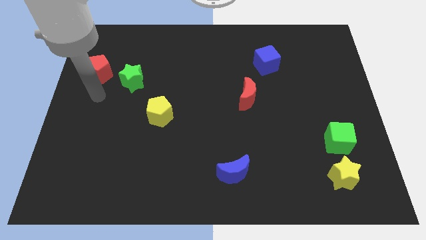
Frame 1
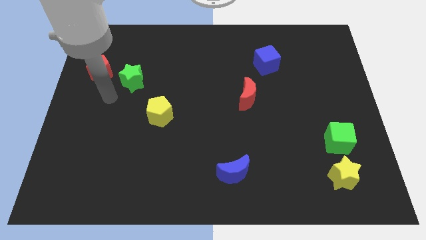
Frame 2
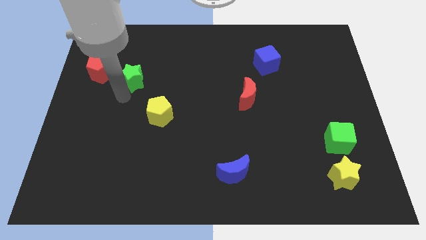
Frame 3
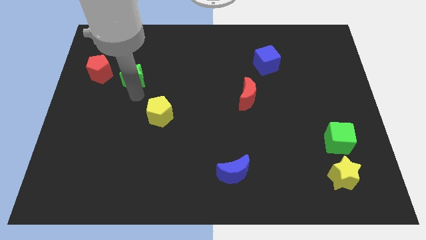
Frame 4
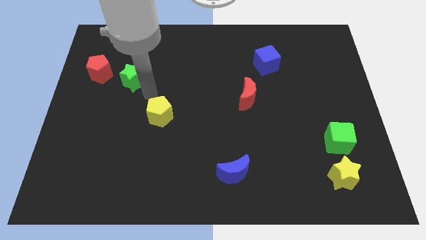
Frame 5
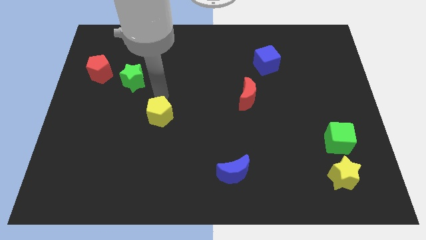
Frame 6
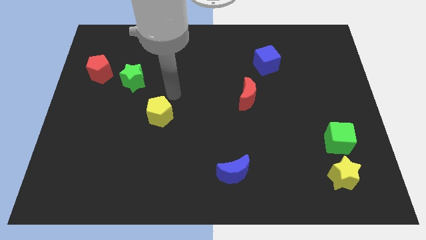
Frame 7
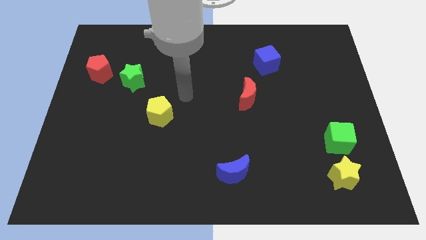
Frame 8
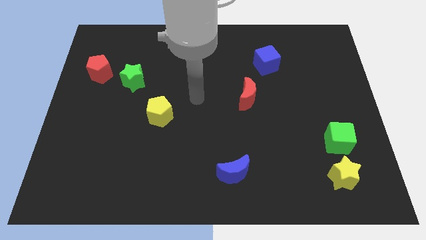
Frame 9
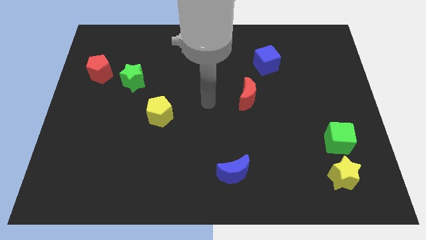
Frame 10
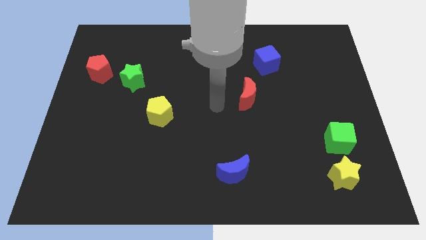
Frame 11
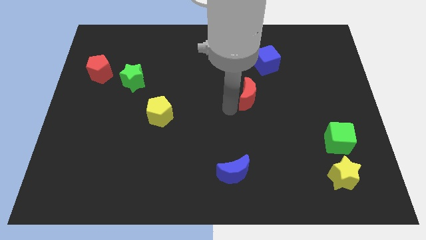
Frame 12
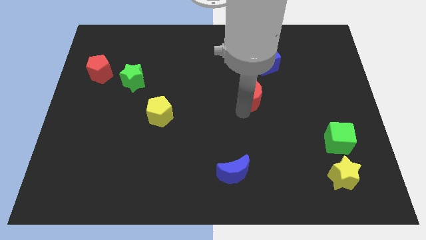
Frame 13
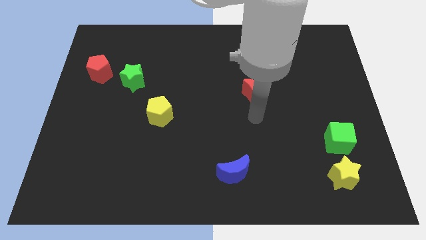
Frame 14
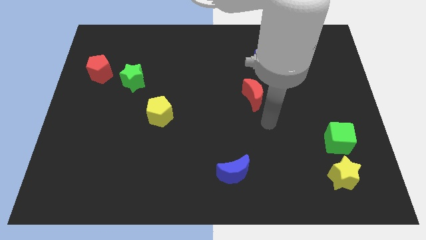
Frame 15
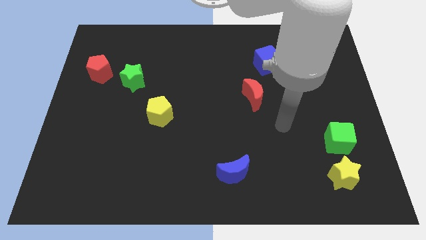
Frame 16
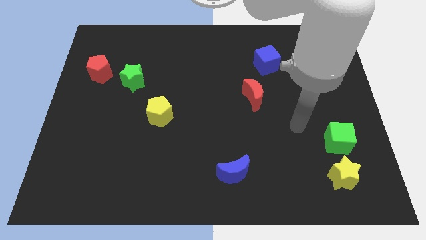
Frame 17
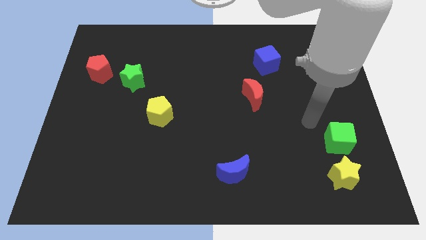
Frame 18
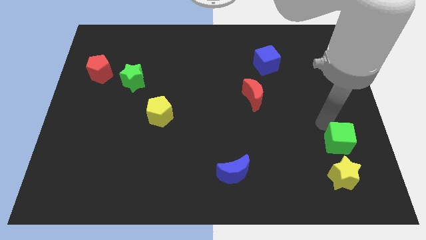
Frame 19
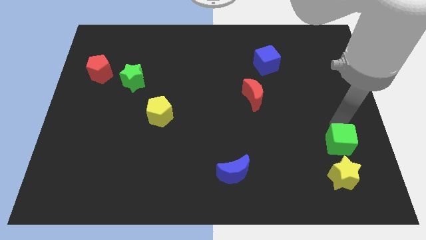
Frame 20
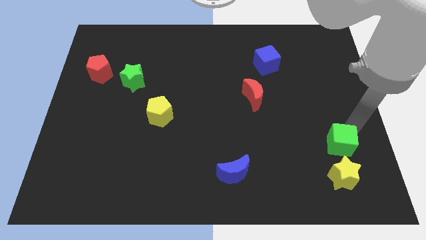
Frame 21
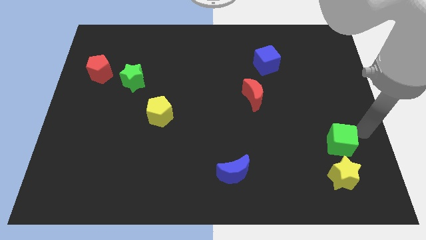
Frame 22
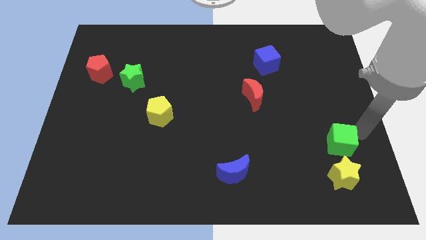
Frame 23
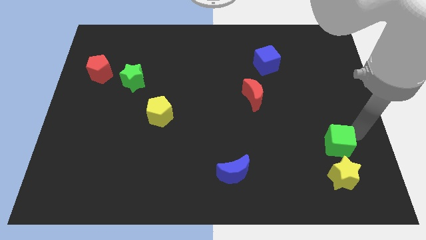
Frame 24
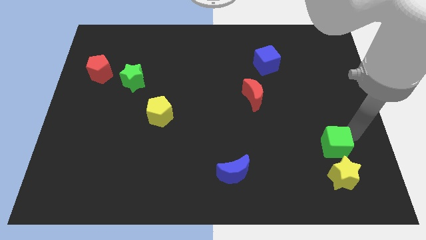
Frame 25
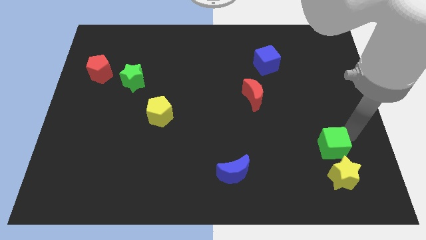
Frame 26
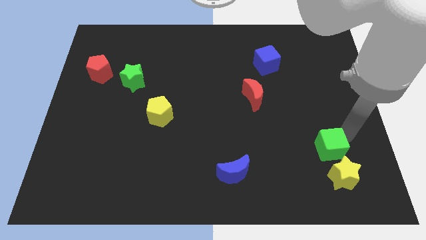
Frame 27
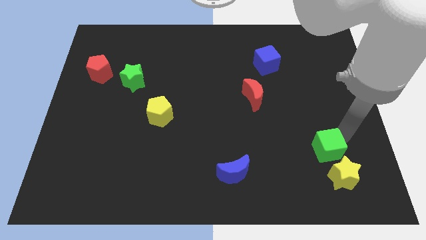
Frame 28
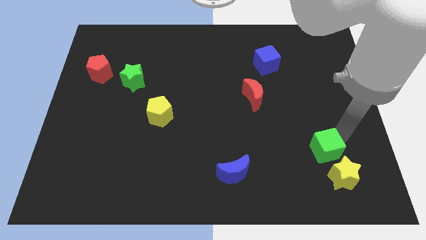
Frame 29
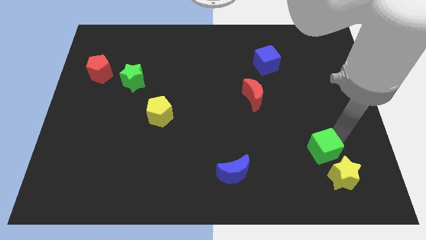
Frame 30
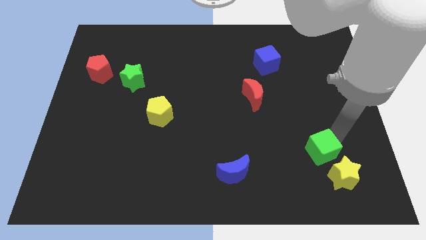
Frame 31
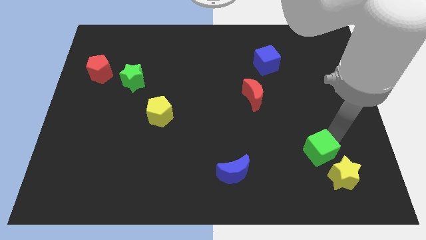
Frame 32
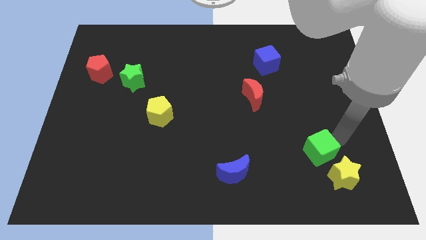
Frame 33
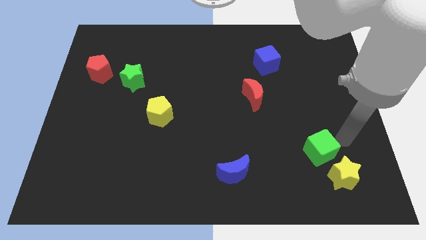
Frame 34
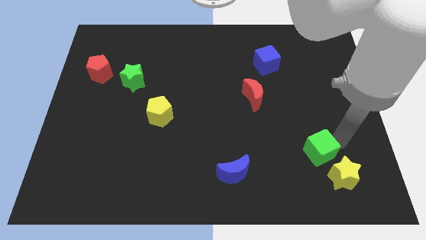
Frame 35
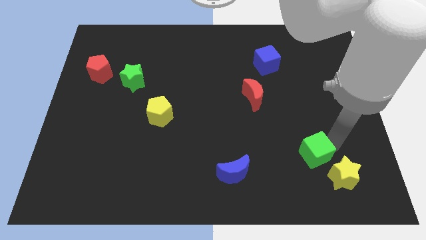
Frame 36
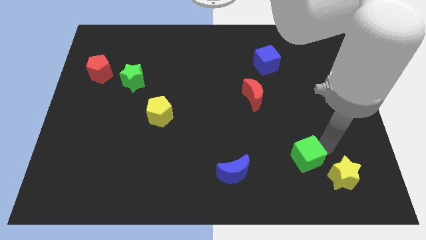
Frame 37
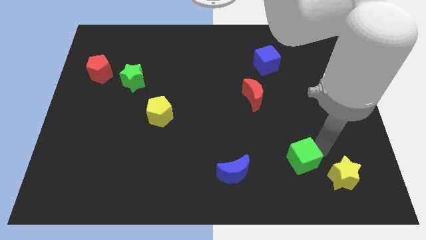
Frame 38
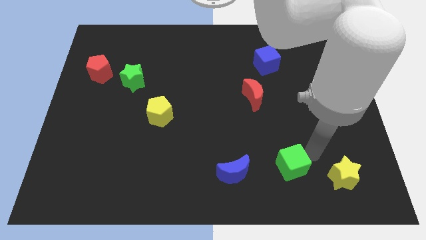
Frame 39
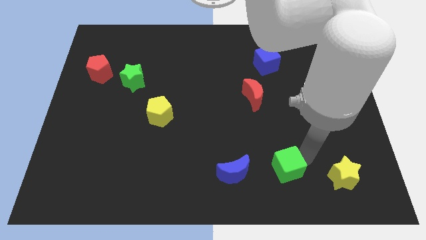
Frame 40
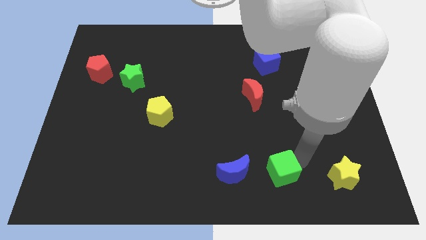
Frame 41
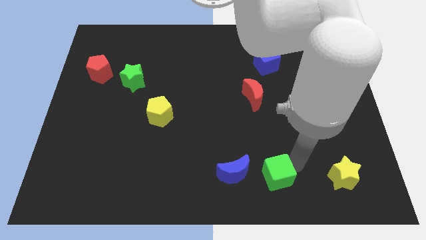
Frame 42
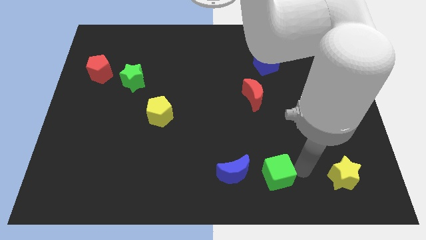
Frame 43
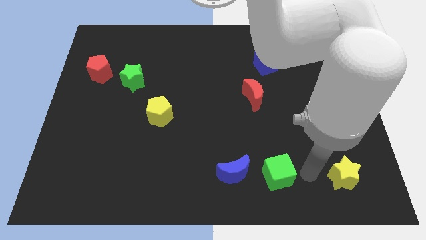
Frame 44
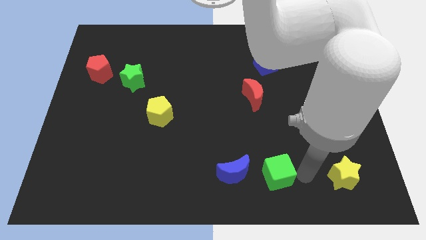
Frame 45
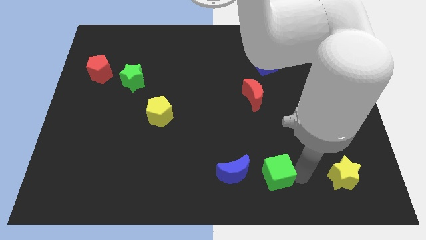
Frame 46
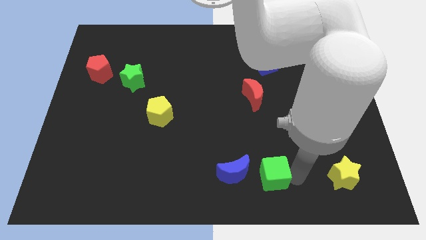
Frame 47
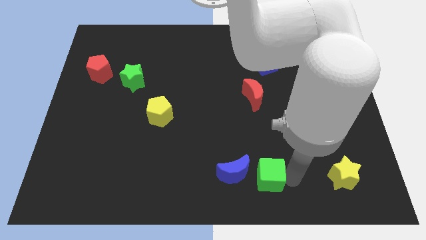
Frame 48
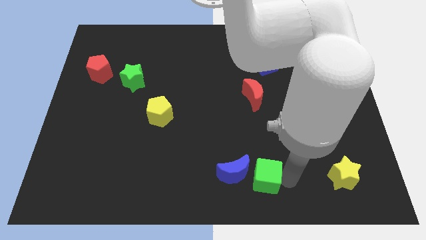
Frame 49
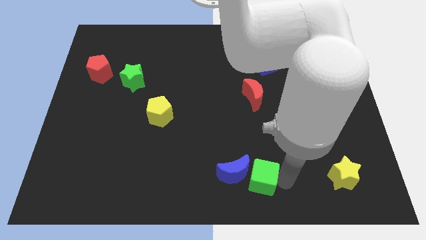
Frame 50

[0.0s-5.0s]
push the green cube close to the blue moon

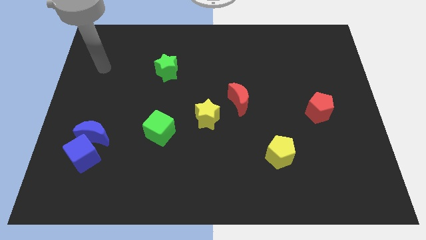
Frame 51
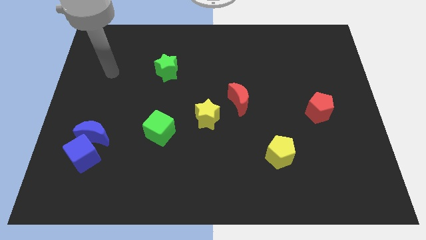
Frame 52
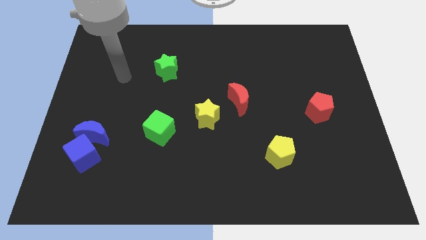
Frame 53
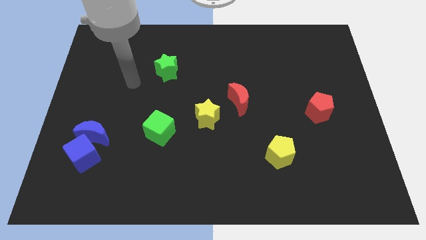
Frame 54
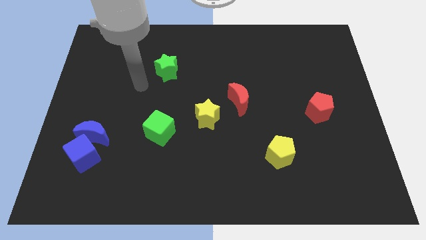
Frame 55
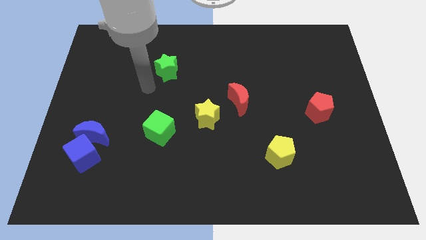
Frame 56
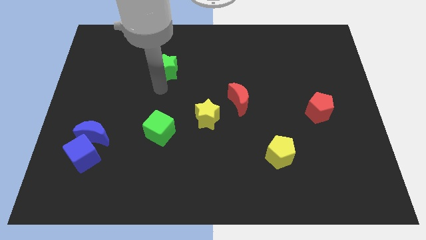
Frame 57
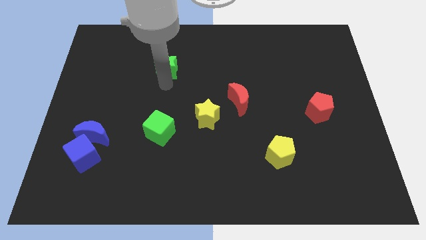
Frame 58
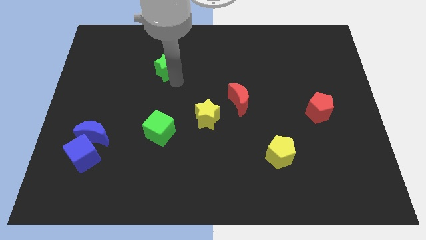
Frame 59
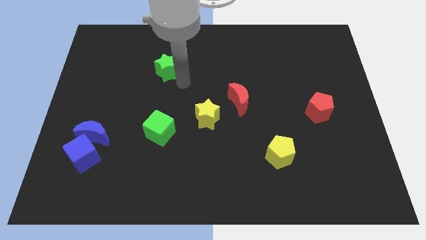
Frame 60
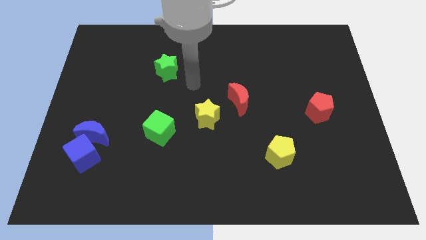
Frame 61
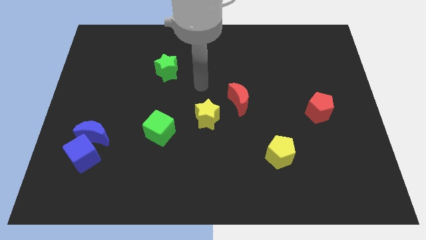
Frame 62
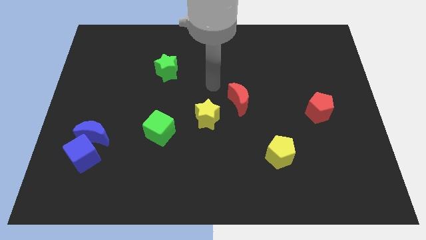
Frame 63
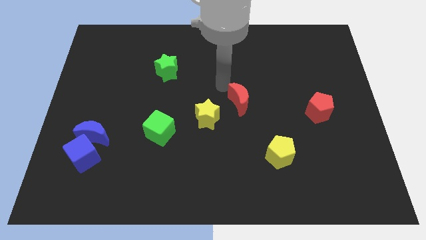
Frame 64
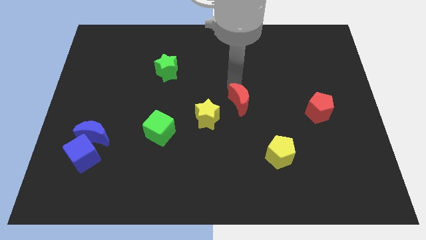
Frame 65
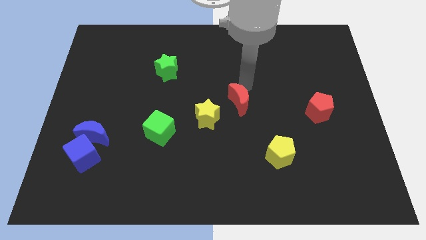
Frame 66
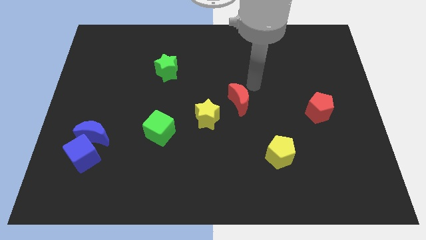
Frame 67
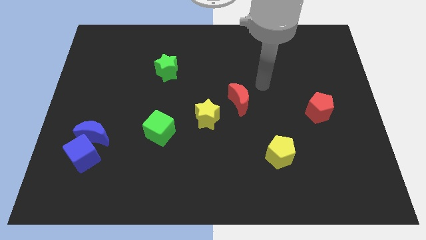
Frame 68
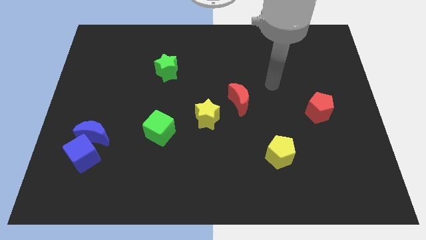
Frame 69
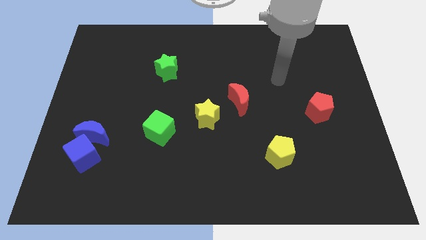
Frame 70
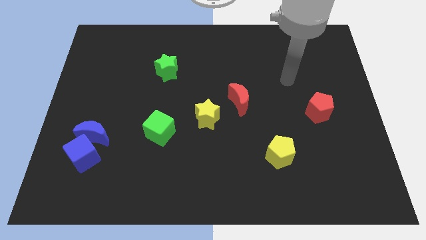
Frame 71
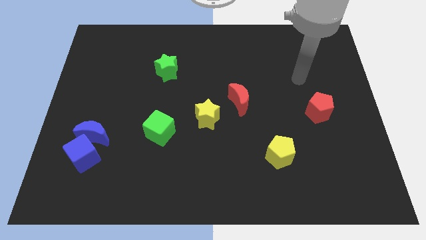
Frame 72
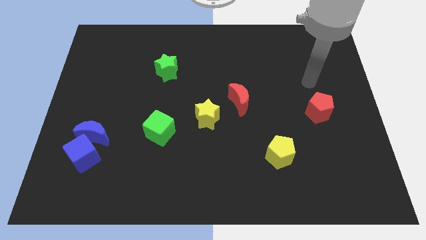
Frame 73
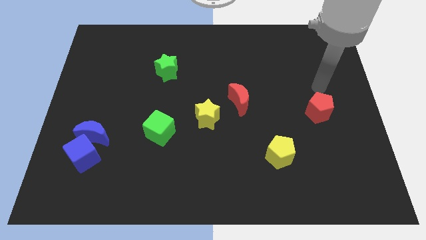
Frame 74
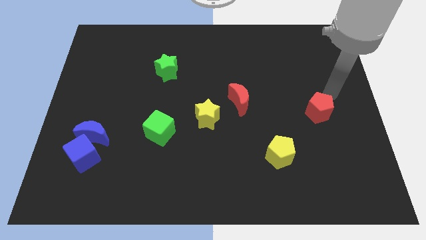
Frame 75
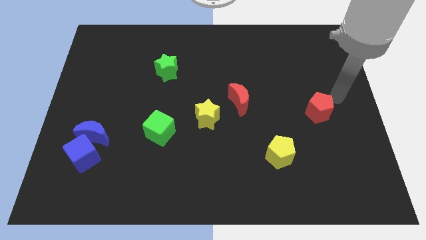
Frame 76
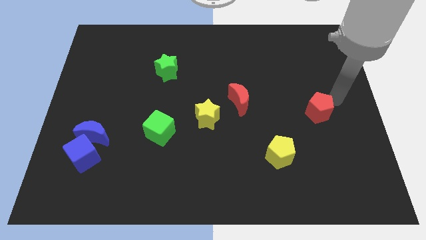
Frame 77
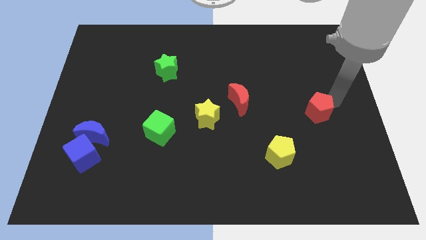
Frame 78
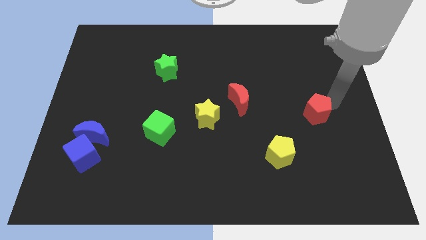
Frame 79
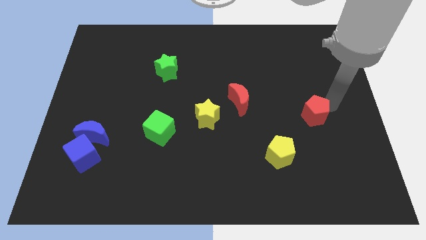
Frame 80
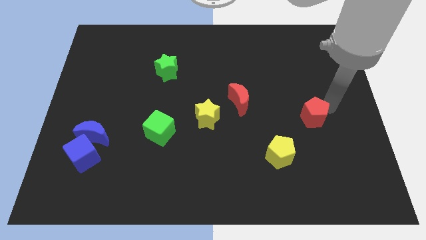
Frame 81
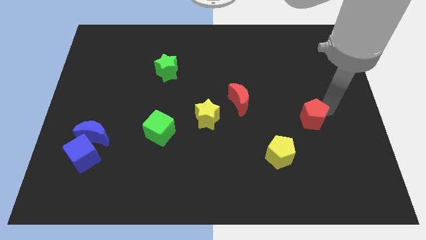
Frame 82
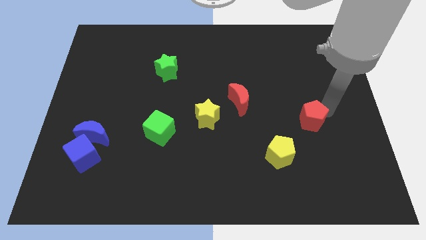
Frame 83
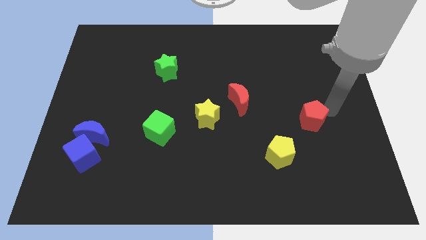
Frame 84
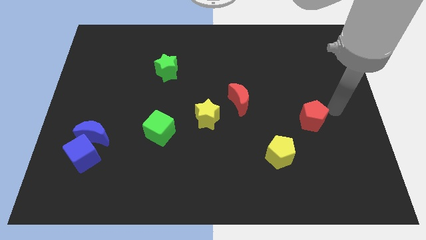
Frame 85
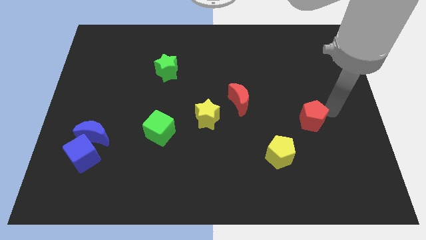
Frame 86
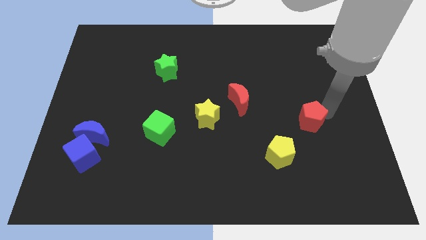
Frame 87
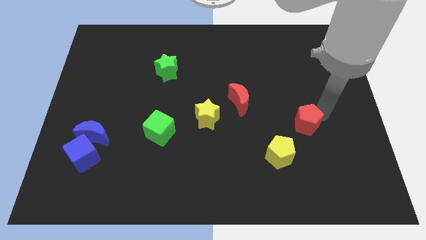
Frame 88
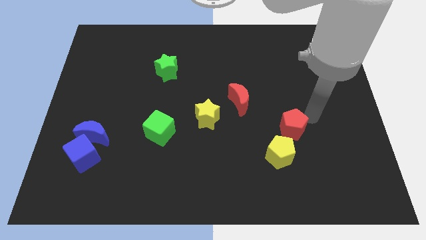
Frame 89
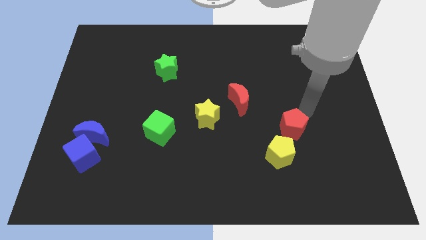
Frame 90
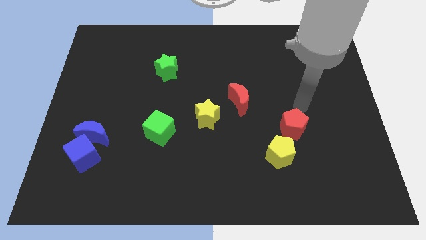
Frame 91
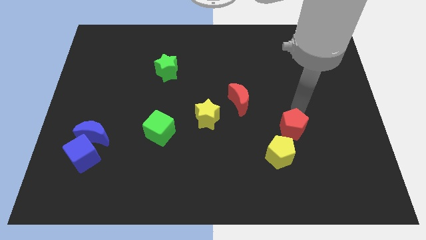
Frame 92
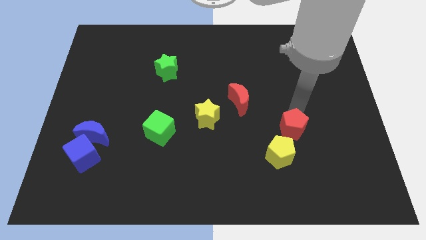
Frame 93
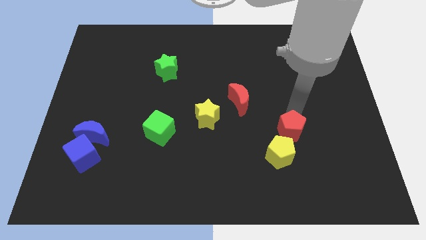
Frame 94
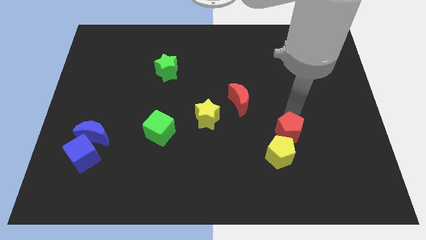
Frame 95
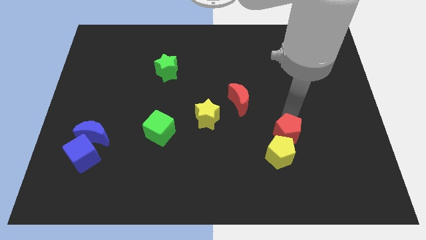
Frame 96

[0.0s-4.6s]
put the red pentagon to the yellow pentagon
